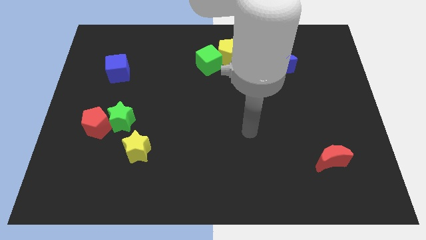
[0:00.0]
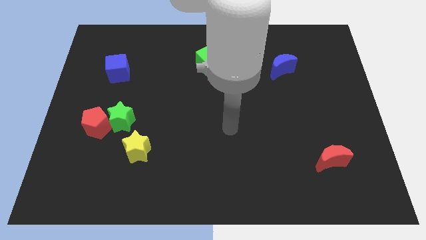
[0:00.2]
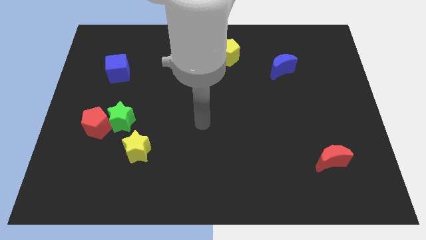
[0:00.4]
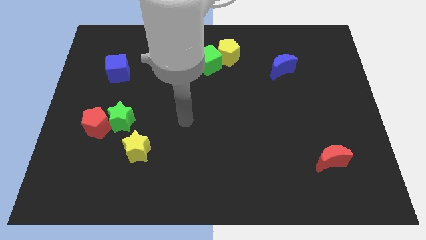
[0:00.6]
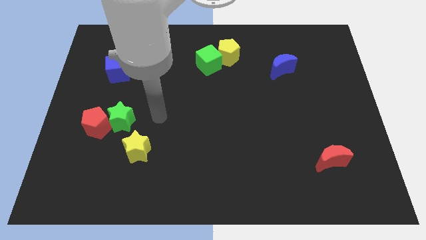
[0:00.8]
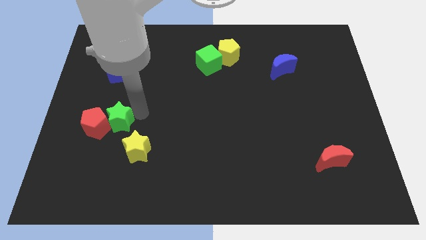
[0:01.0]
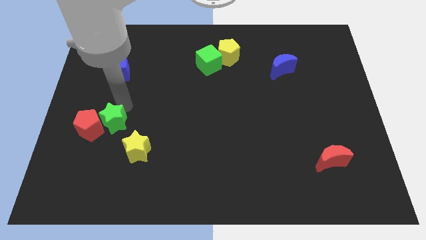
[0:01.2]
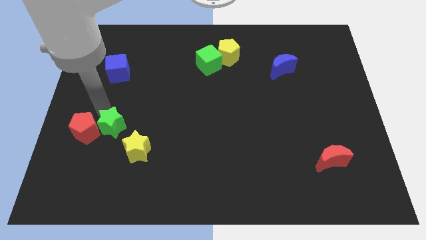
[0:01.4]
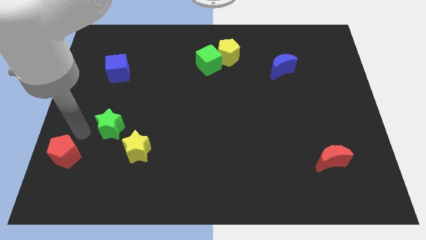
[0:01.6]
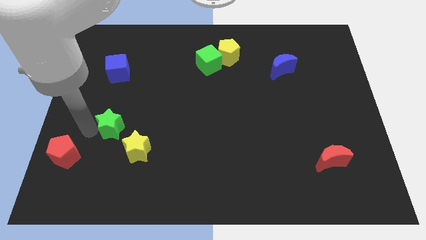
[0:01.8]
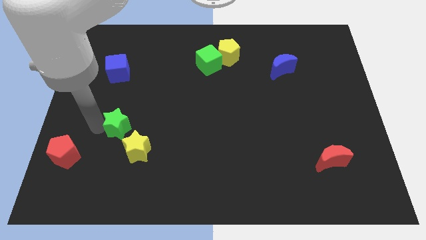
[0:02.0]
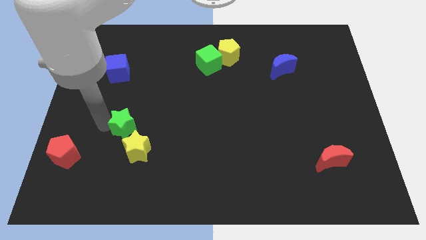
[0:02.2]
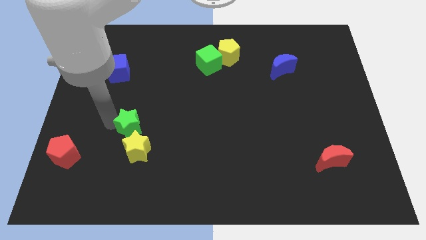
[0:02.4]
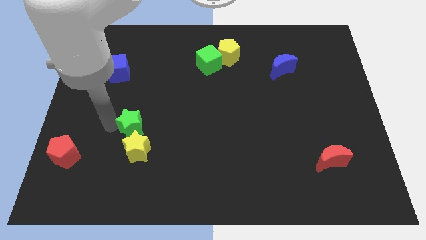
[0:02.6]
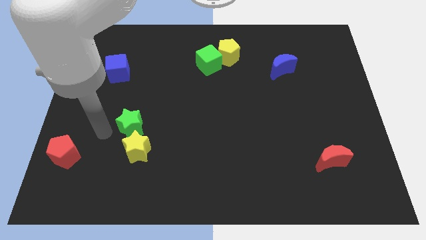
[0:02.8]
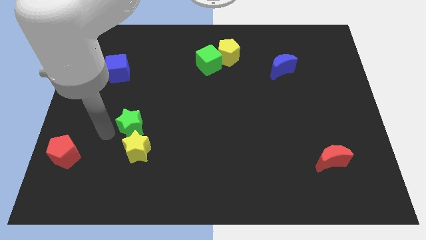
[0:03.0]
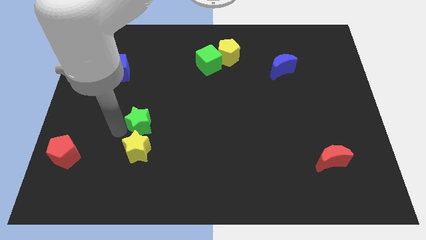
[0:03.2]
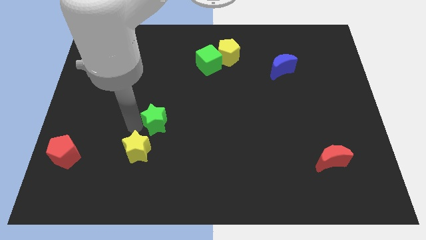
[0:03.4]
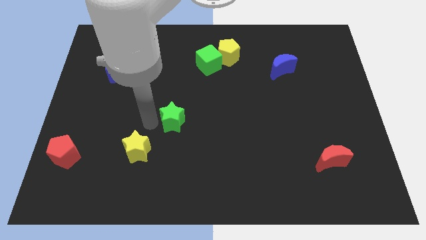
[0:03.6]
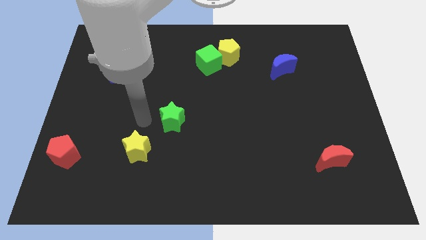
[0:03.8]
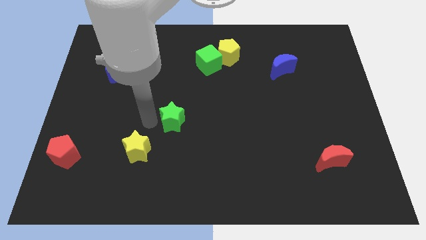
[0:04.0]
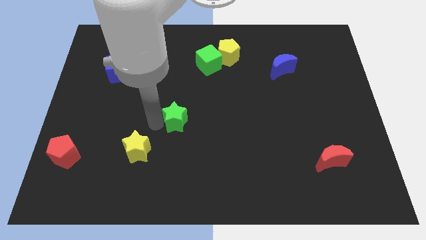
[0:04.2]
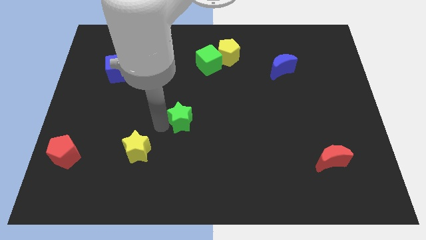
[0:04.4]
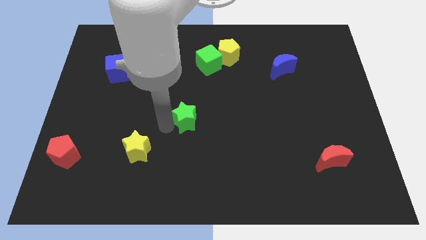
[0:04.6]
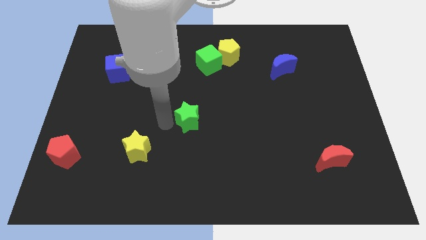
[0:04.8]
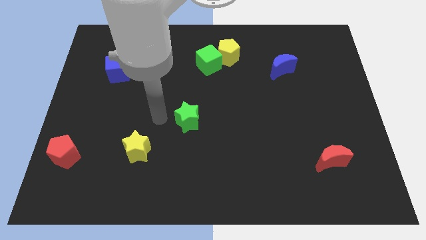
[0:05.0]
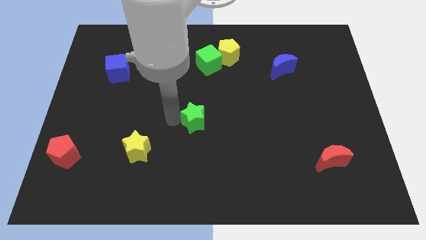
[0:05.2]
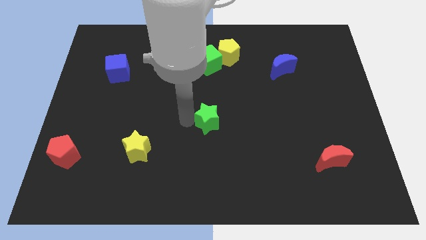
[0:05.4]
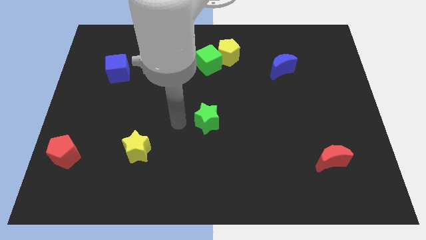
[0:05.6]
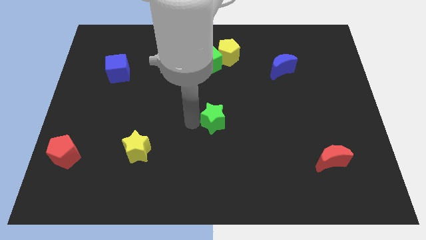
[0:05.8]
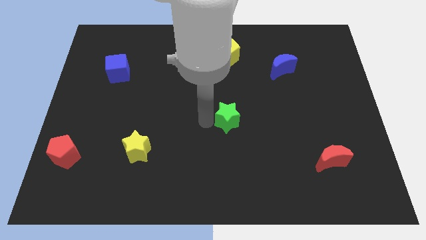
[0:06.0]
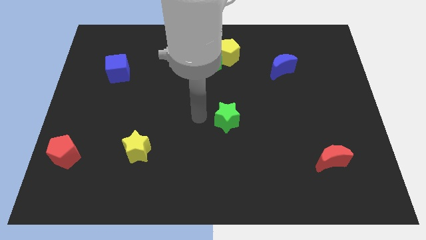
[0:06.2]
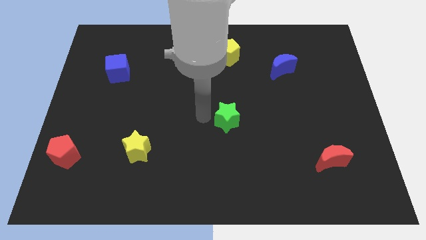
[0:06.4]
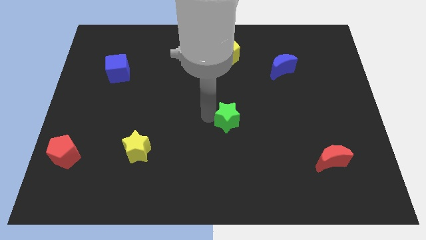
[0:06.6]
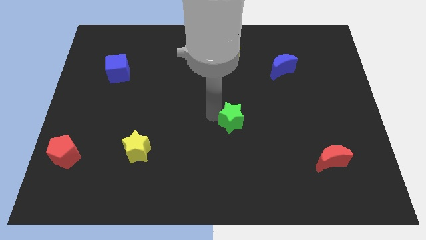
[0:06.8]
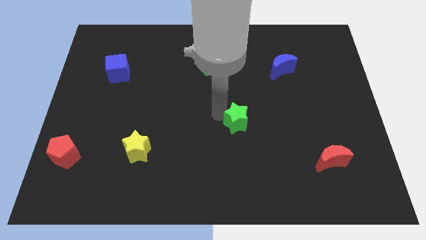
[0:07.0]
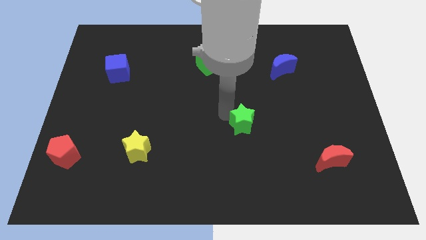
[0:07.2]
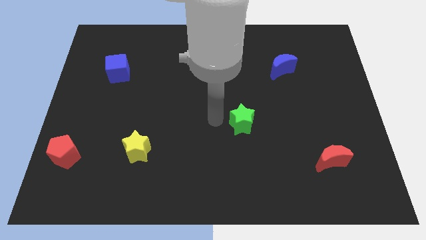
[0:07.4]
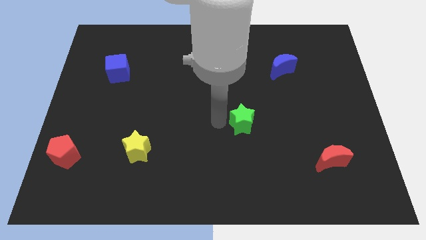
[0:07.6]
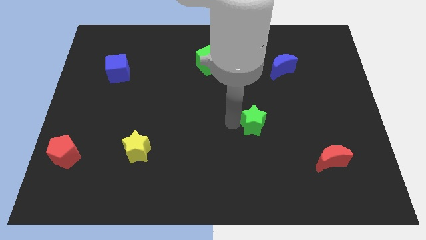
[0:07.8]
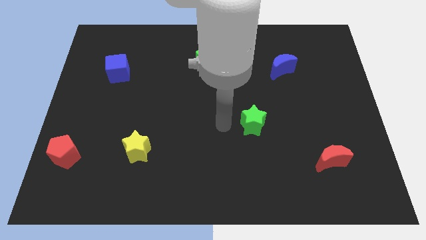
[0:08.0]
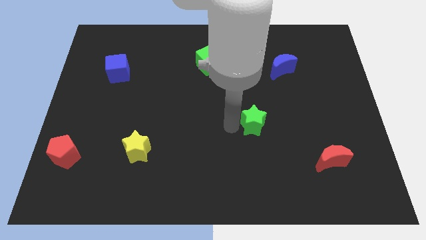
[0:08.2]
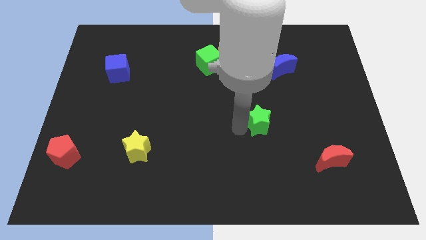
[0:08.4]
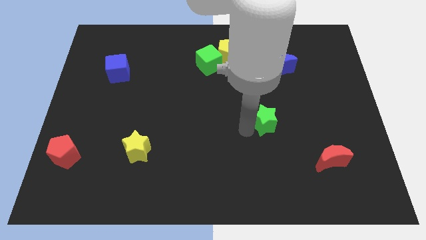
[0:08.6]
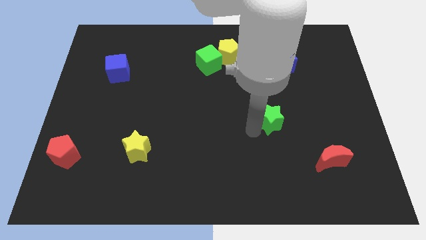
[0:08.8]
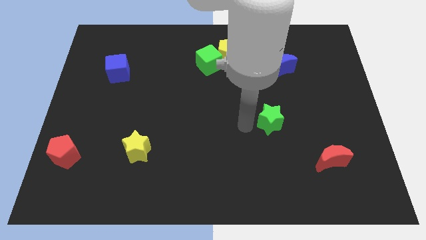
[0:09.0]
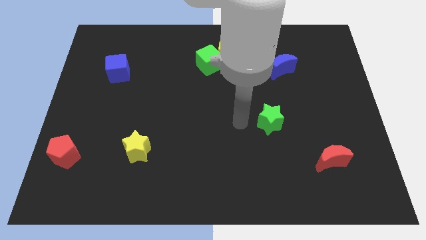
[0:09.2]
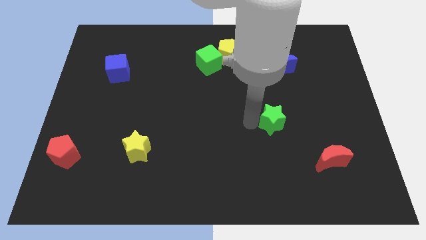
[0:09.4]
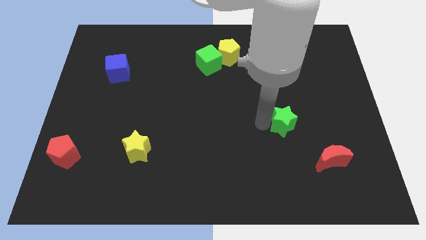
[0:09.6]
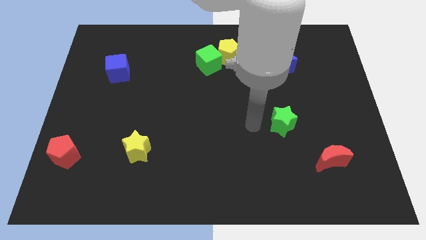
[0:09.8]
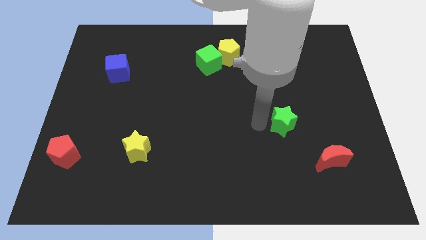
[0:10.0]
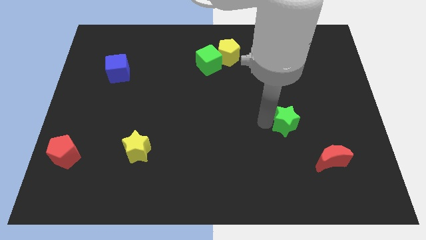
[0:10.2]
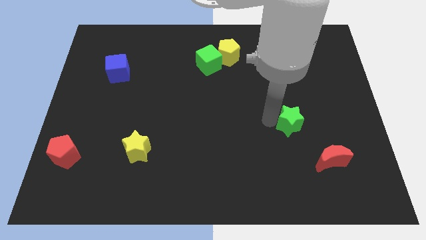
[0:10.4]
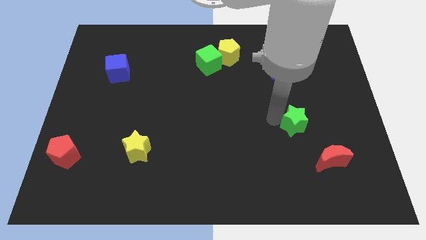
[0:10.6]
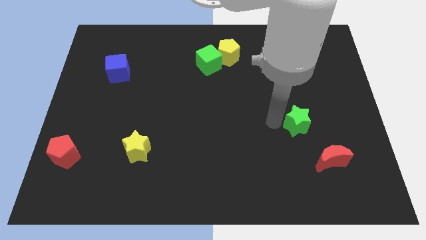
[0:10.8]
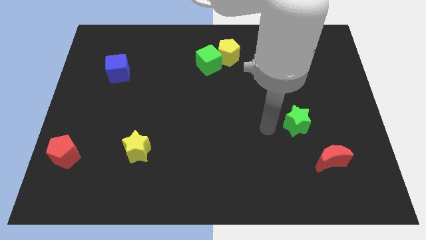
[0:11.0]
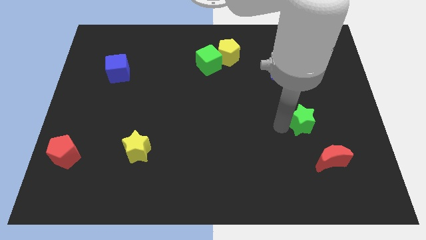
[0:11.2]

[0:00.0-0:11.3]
put the green star above the red moon

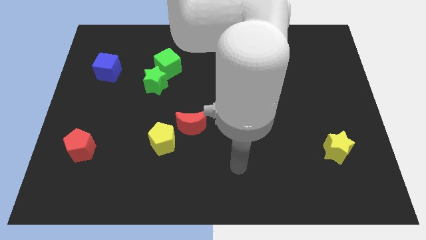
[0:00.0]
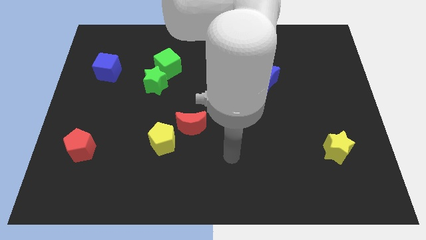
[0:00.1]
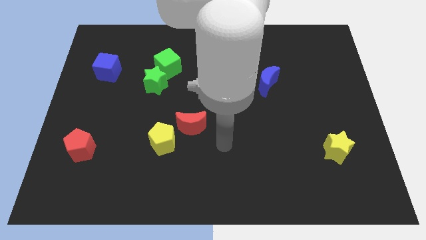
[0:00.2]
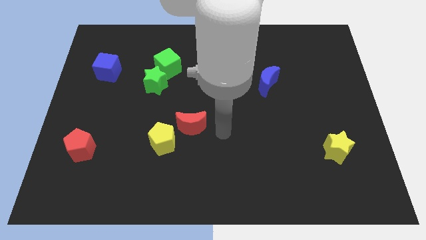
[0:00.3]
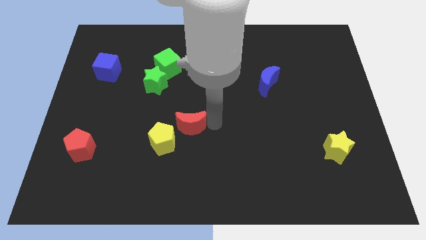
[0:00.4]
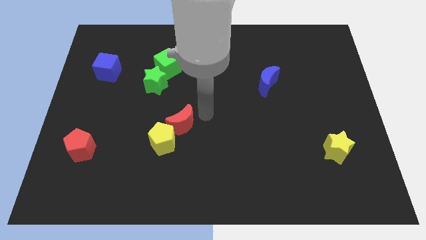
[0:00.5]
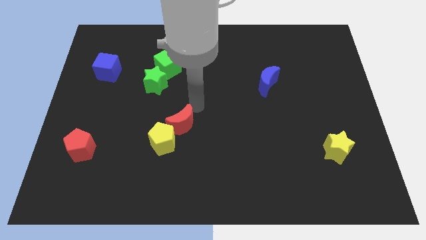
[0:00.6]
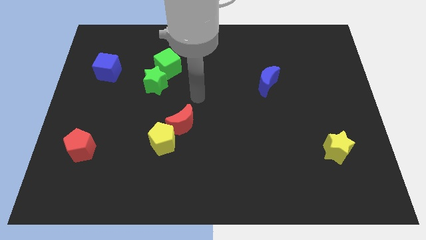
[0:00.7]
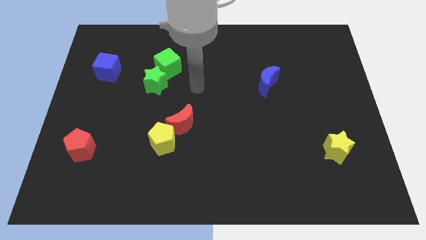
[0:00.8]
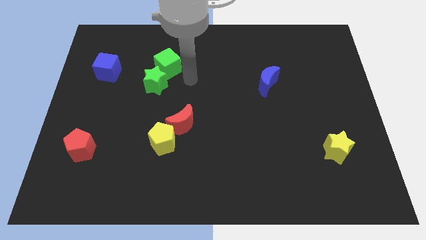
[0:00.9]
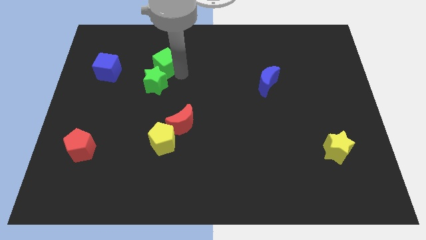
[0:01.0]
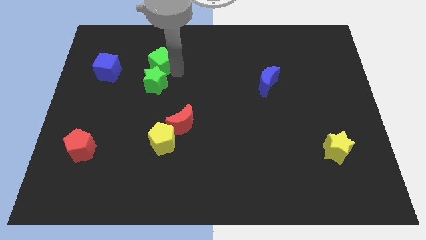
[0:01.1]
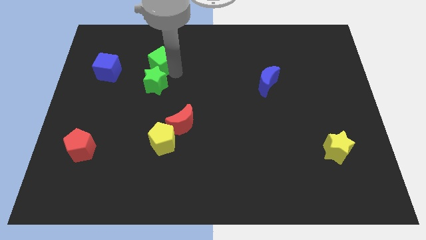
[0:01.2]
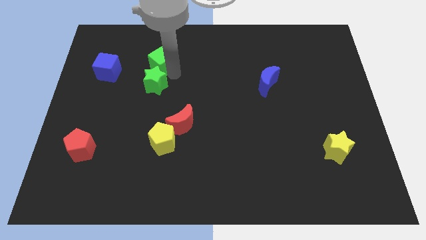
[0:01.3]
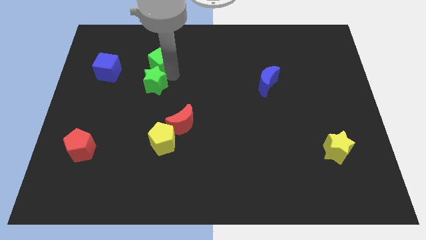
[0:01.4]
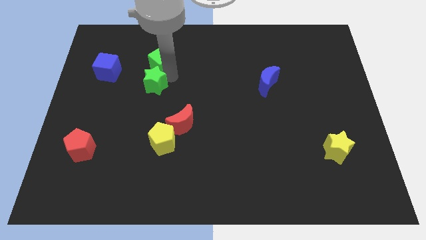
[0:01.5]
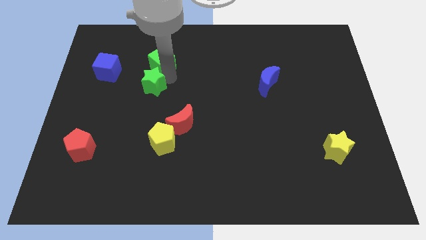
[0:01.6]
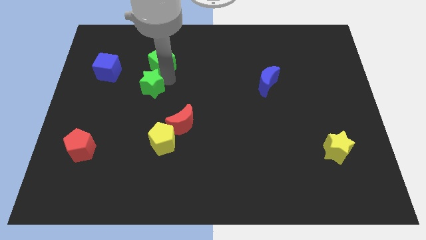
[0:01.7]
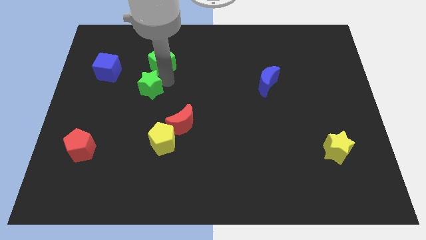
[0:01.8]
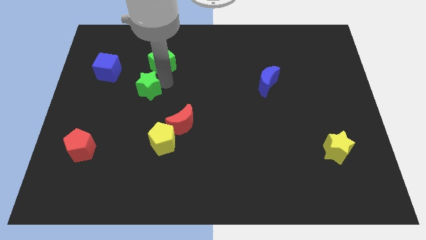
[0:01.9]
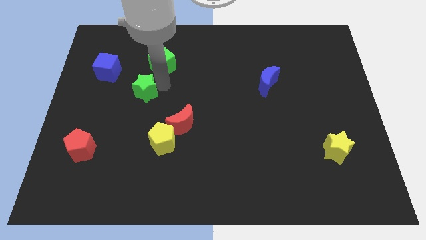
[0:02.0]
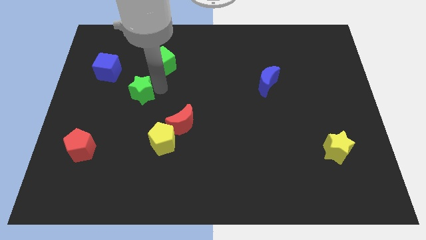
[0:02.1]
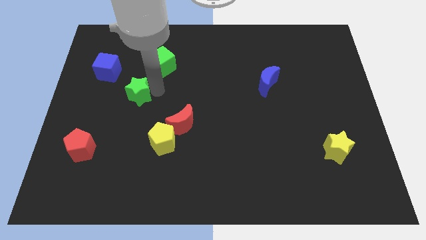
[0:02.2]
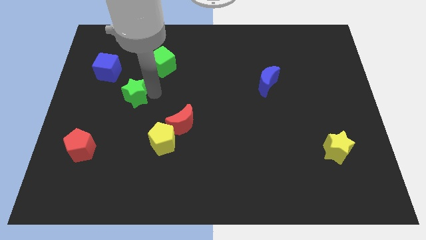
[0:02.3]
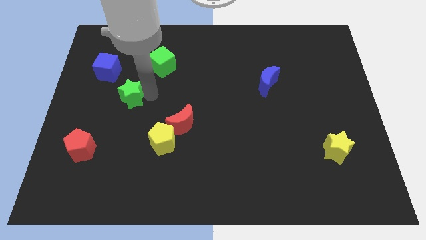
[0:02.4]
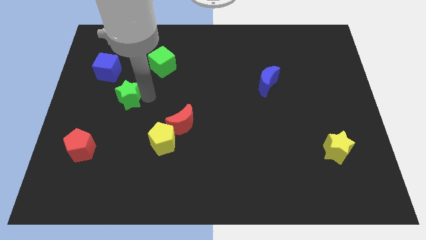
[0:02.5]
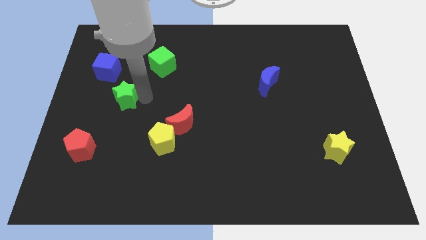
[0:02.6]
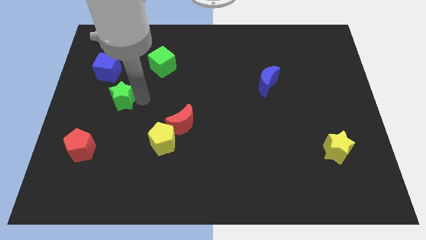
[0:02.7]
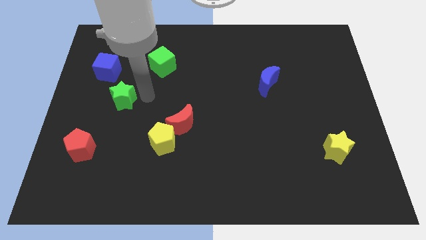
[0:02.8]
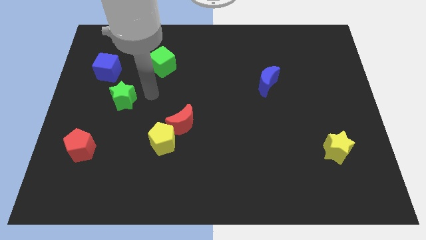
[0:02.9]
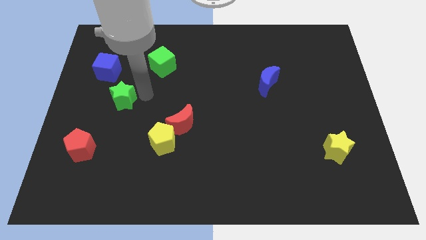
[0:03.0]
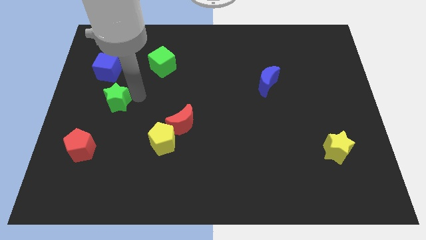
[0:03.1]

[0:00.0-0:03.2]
slide the green star below the blue cube
